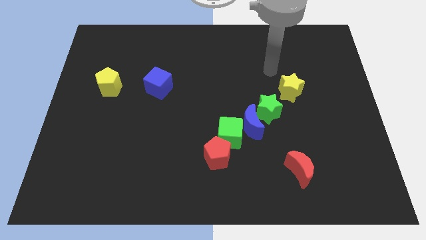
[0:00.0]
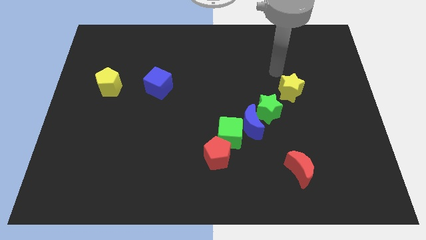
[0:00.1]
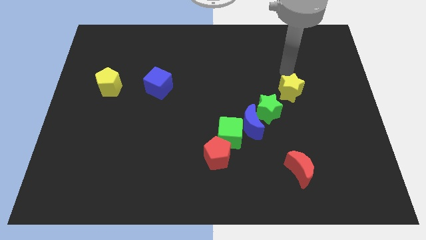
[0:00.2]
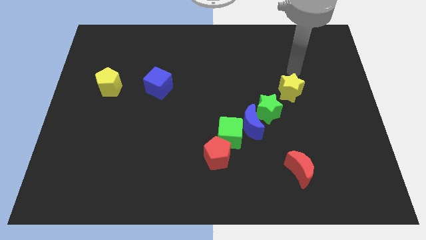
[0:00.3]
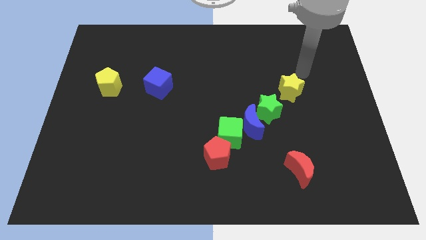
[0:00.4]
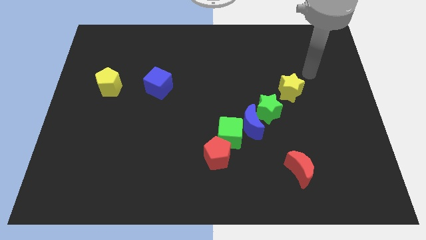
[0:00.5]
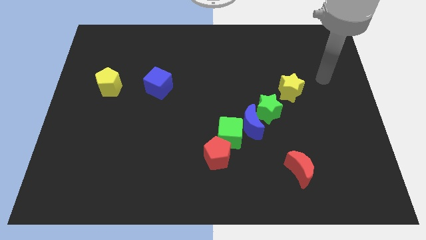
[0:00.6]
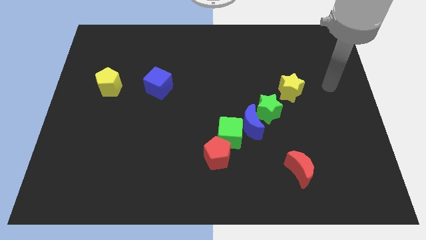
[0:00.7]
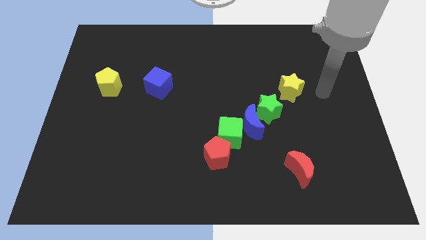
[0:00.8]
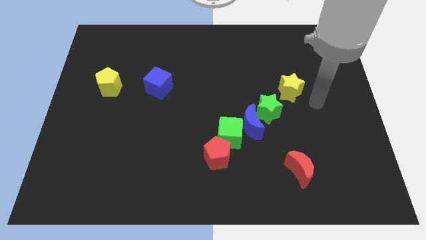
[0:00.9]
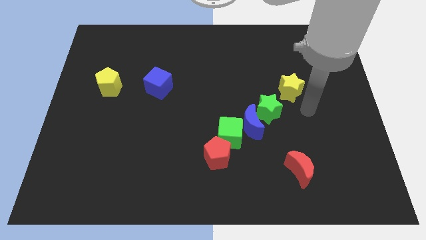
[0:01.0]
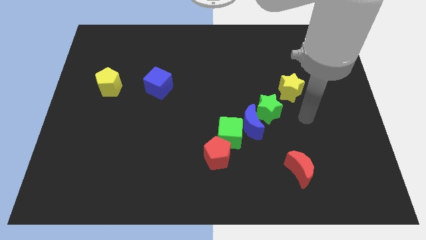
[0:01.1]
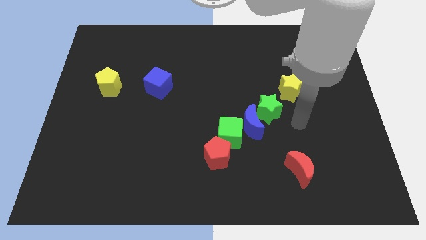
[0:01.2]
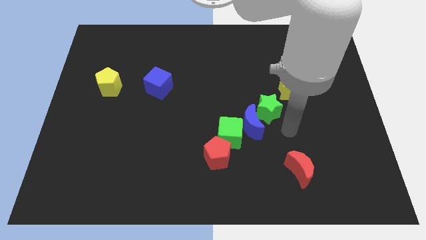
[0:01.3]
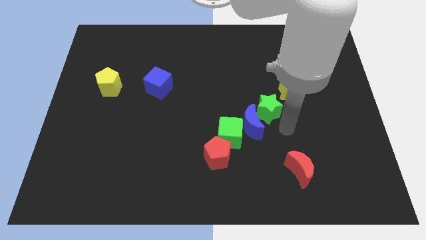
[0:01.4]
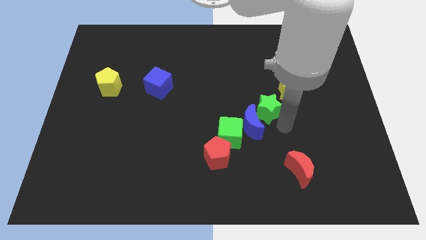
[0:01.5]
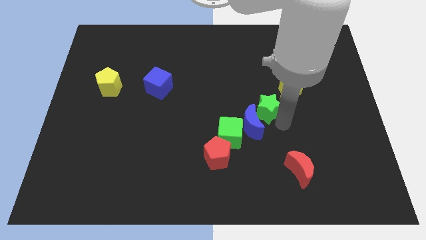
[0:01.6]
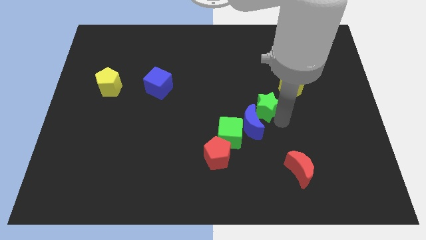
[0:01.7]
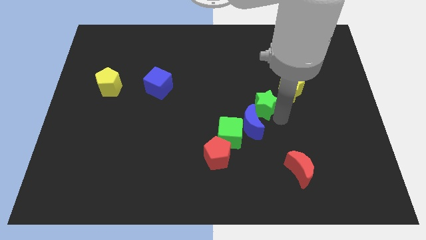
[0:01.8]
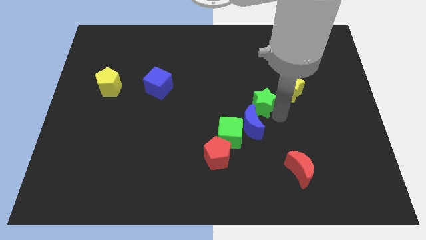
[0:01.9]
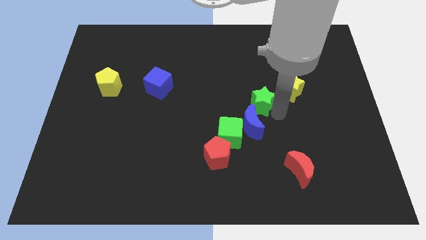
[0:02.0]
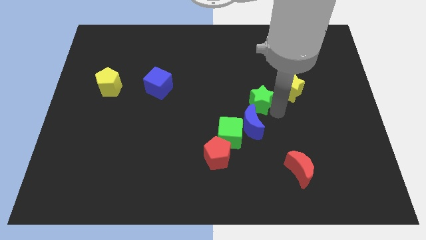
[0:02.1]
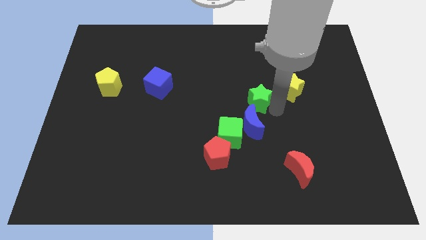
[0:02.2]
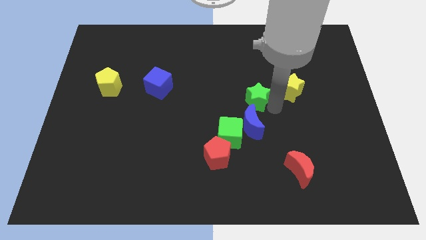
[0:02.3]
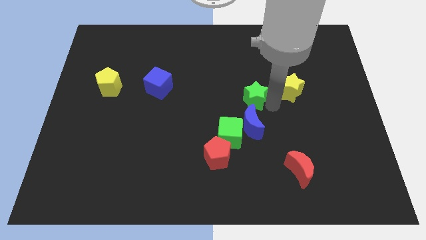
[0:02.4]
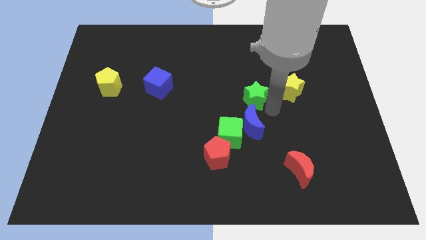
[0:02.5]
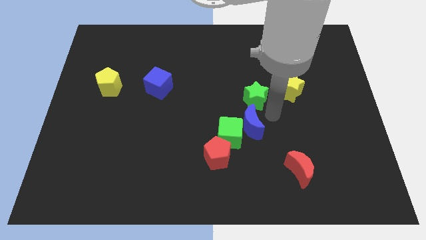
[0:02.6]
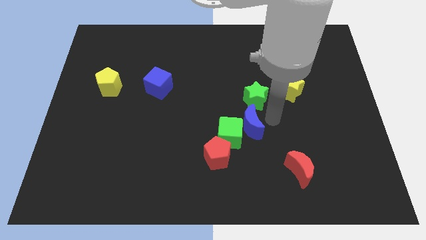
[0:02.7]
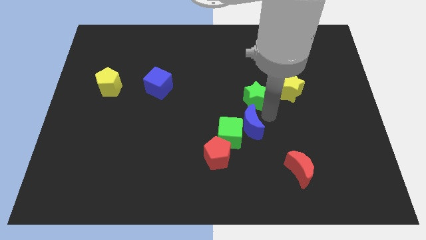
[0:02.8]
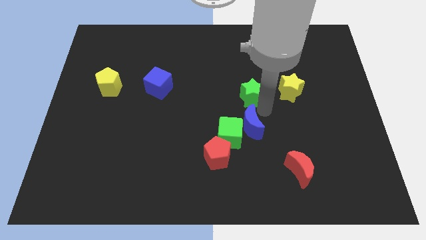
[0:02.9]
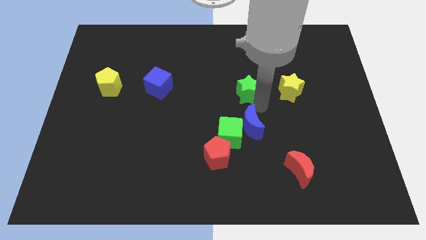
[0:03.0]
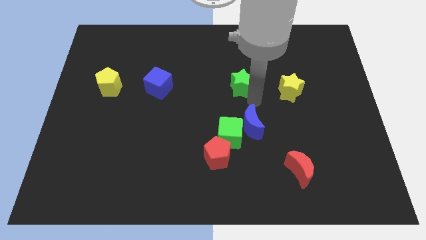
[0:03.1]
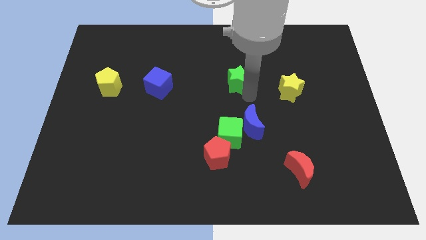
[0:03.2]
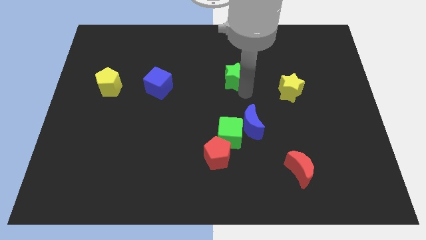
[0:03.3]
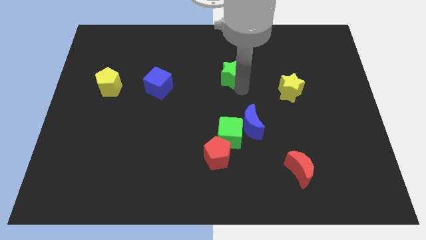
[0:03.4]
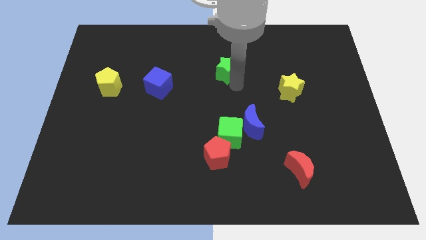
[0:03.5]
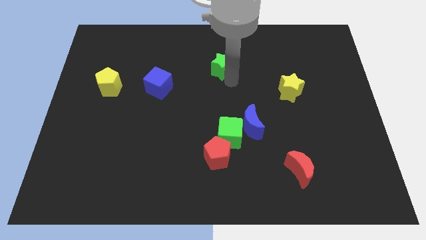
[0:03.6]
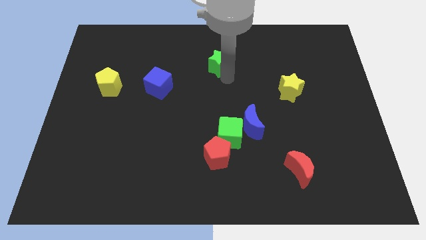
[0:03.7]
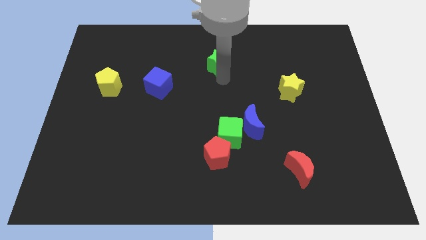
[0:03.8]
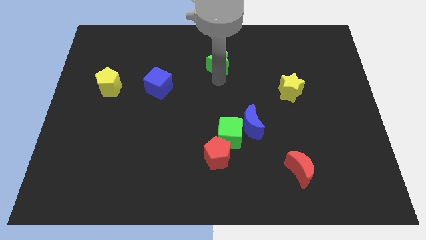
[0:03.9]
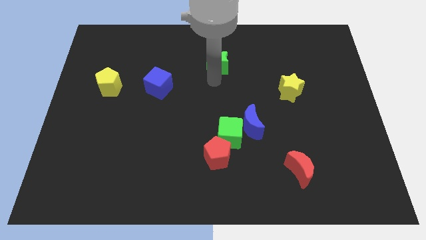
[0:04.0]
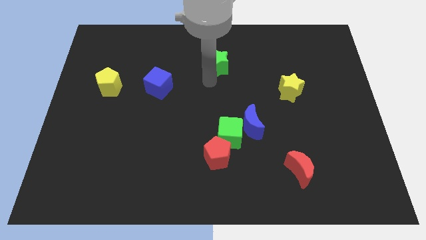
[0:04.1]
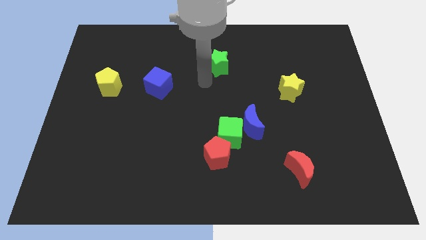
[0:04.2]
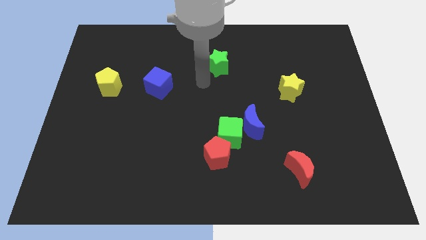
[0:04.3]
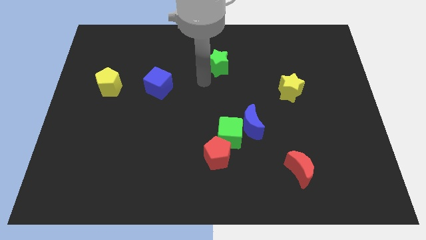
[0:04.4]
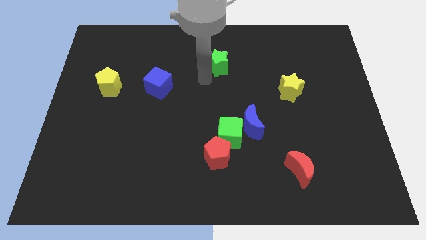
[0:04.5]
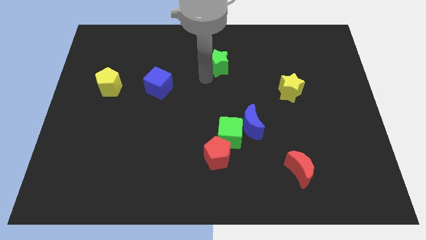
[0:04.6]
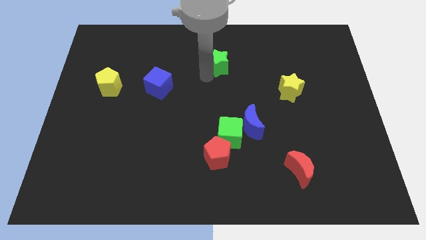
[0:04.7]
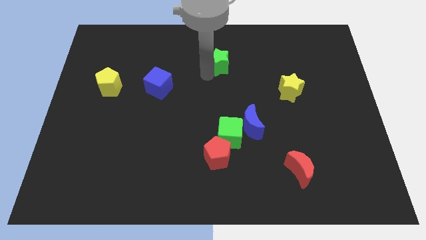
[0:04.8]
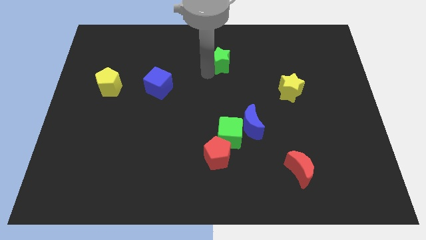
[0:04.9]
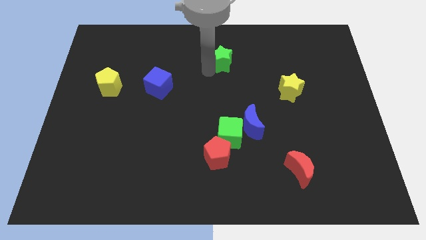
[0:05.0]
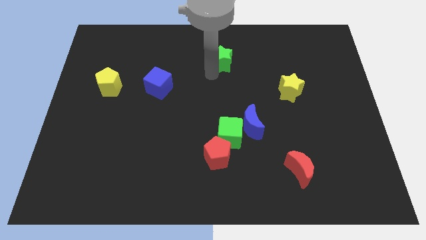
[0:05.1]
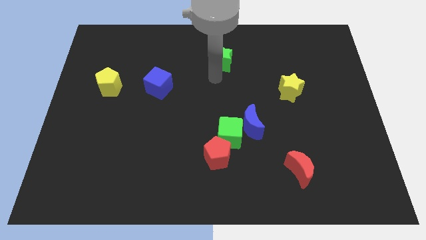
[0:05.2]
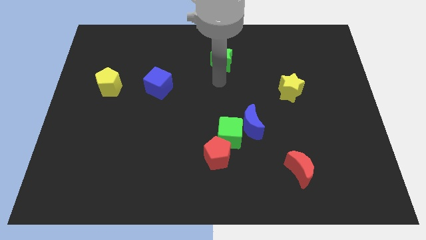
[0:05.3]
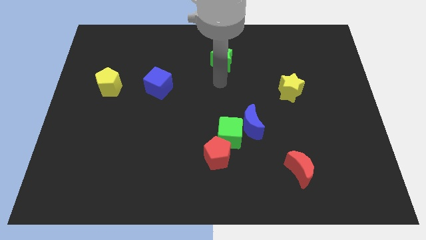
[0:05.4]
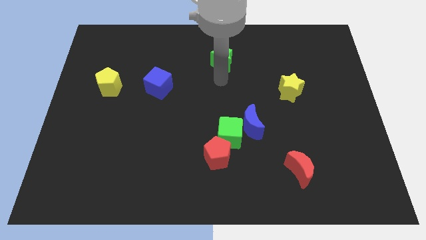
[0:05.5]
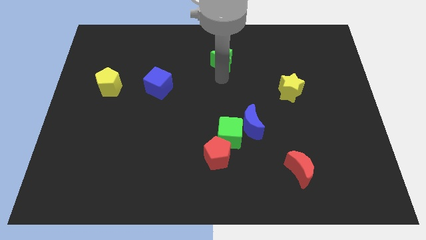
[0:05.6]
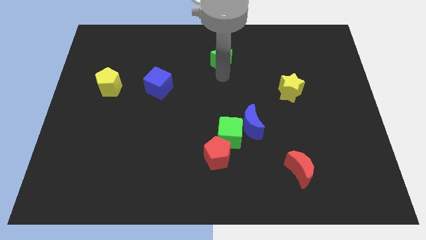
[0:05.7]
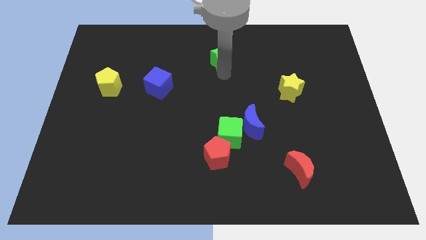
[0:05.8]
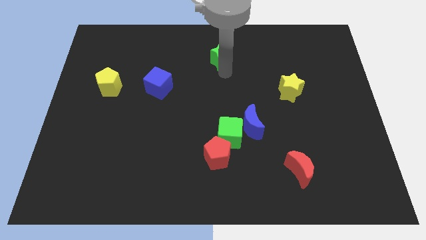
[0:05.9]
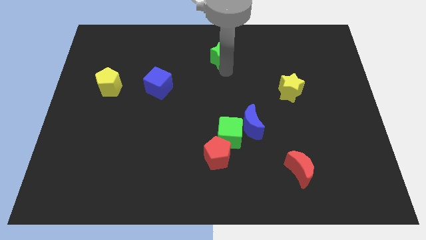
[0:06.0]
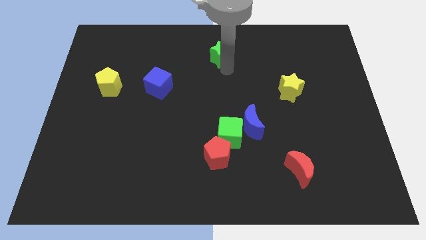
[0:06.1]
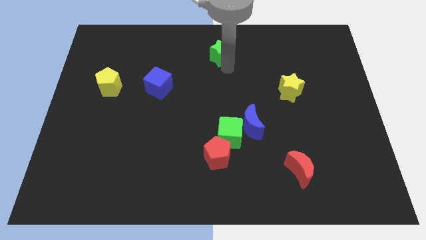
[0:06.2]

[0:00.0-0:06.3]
slide the green star to the top
